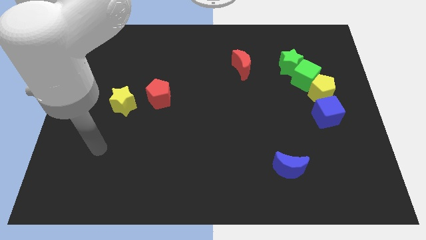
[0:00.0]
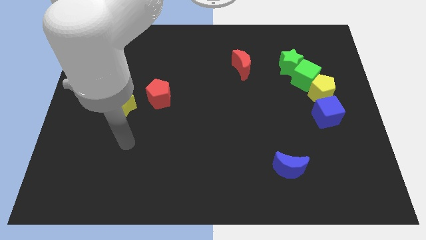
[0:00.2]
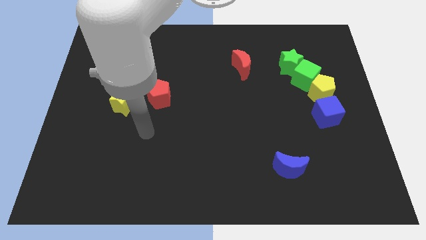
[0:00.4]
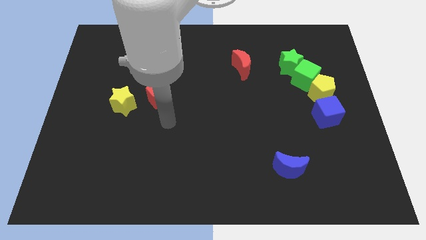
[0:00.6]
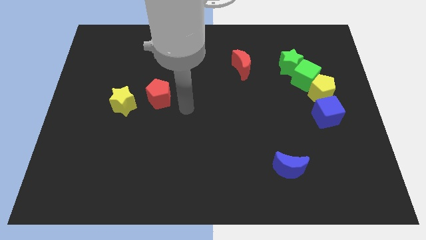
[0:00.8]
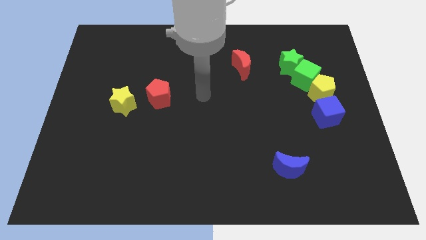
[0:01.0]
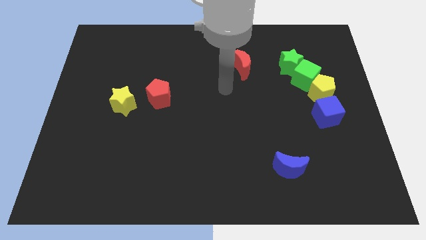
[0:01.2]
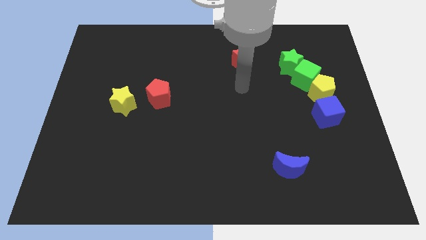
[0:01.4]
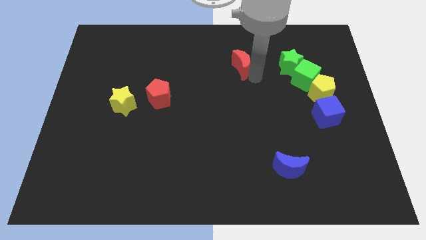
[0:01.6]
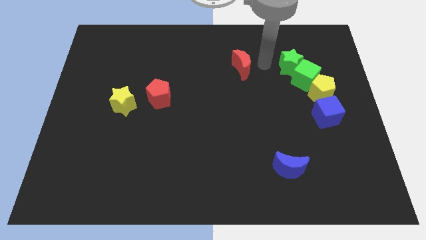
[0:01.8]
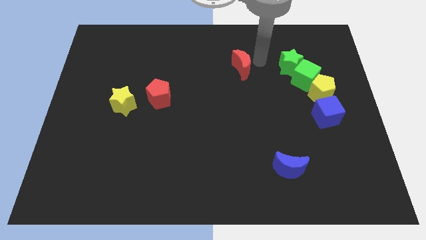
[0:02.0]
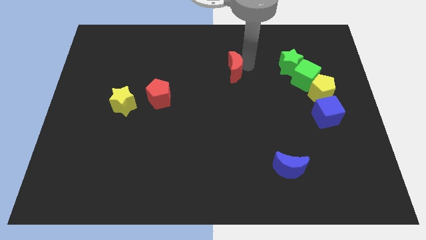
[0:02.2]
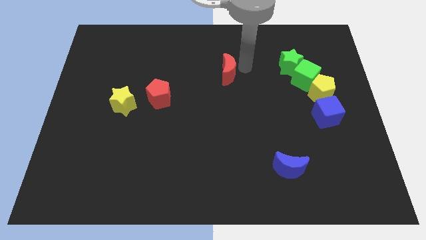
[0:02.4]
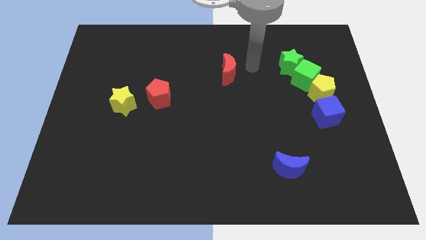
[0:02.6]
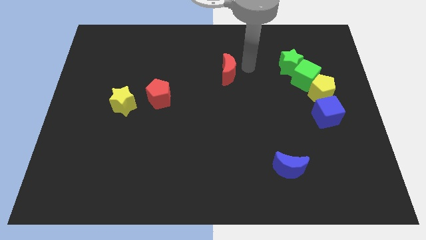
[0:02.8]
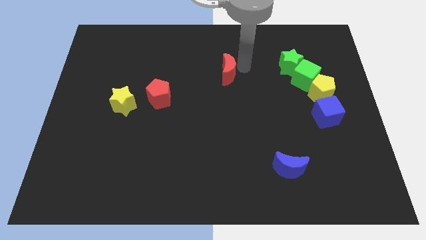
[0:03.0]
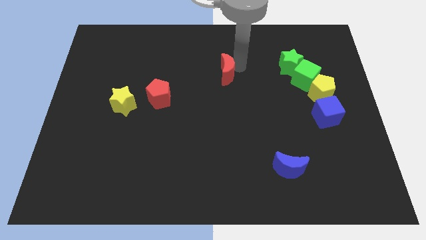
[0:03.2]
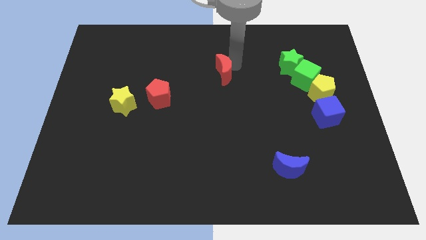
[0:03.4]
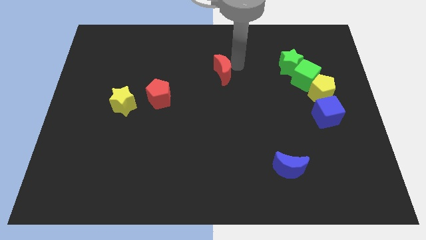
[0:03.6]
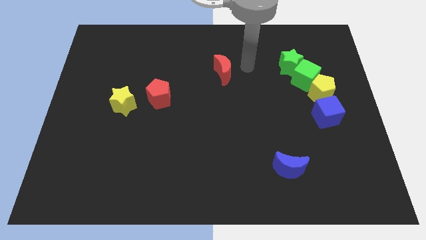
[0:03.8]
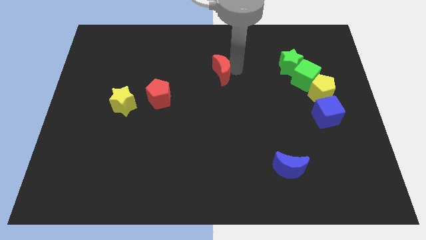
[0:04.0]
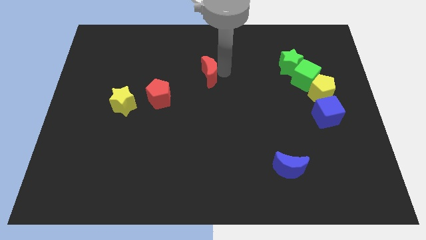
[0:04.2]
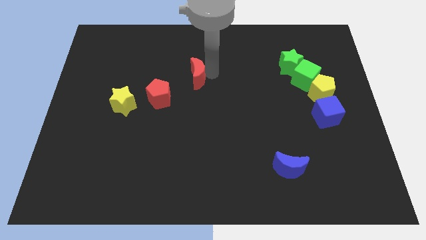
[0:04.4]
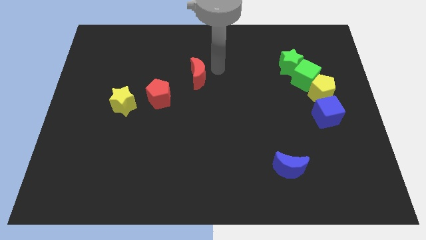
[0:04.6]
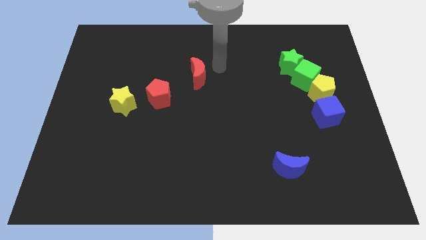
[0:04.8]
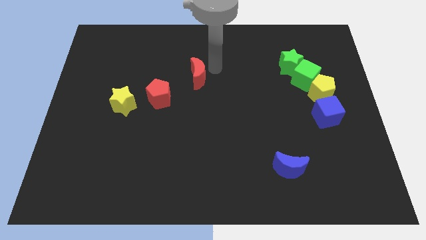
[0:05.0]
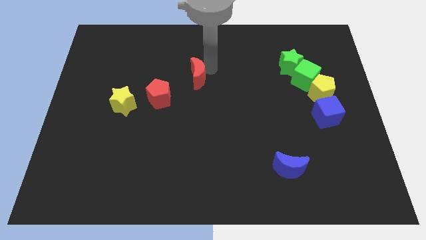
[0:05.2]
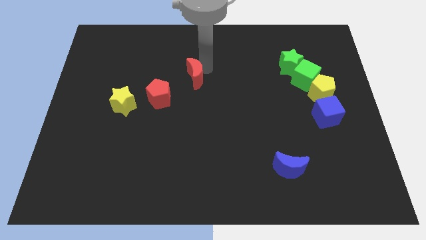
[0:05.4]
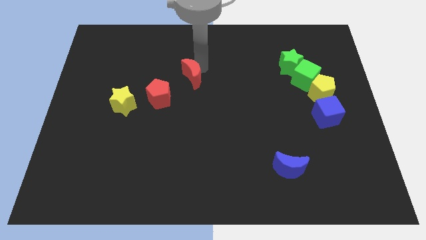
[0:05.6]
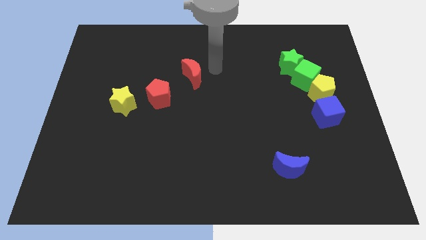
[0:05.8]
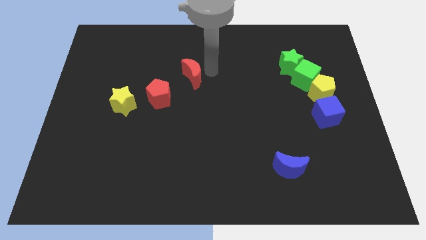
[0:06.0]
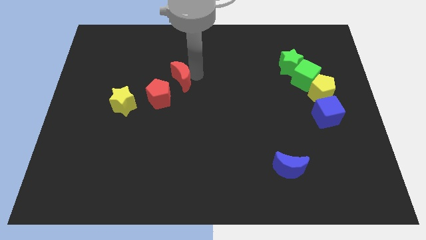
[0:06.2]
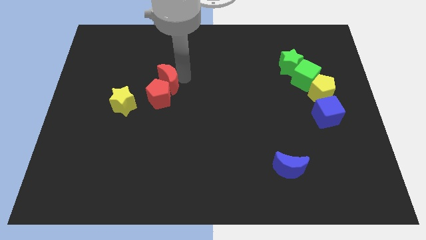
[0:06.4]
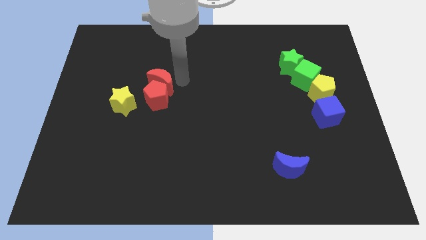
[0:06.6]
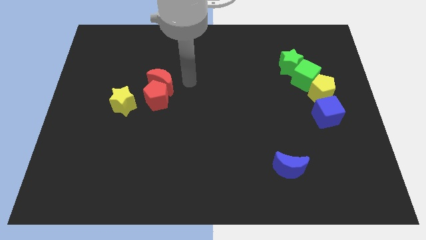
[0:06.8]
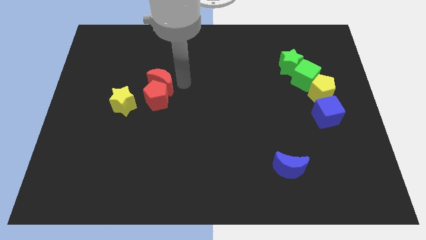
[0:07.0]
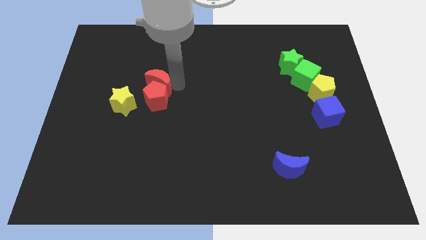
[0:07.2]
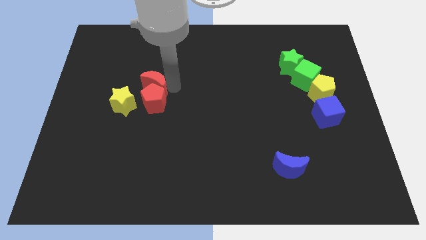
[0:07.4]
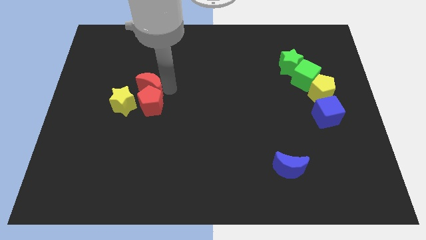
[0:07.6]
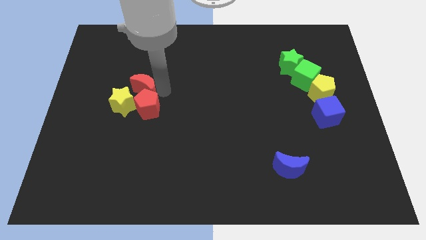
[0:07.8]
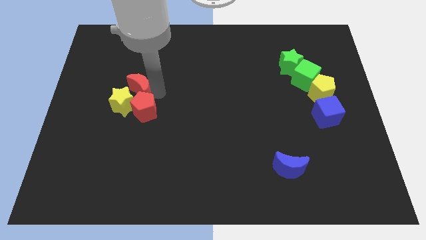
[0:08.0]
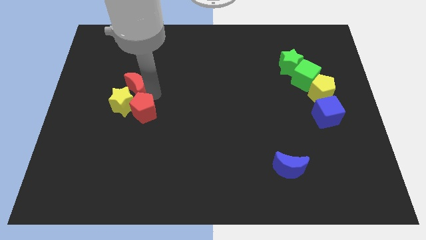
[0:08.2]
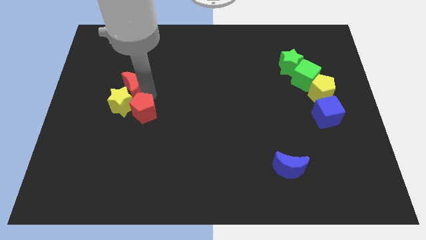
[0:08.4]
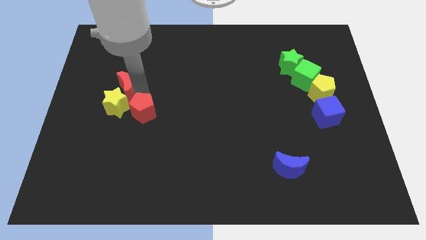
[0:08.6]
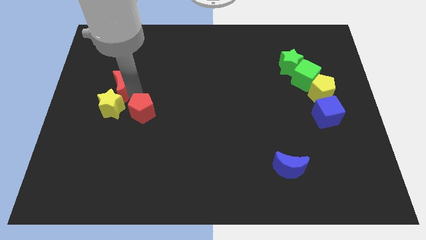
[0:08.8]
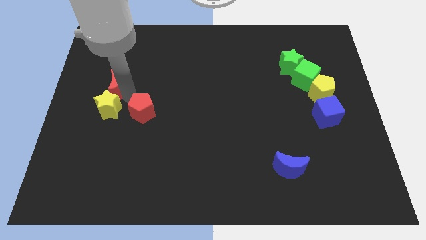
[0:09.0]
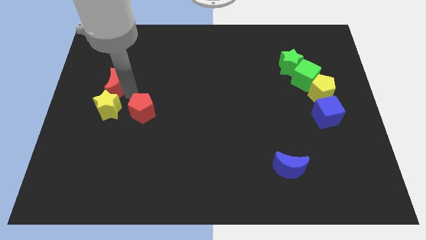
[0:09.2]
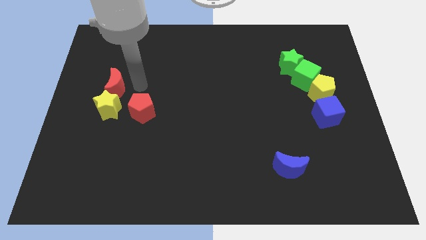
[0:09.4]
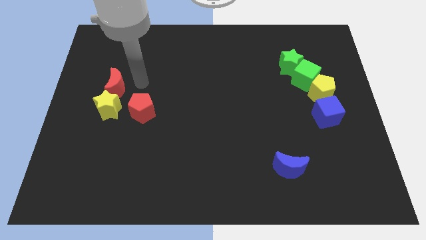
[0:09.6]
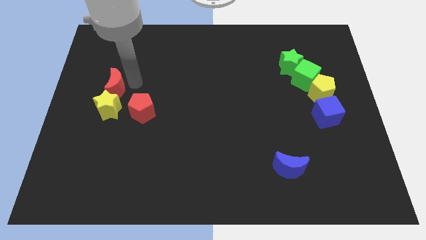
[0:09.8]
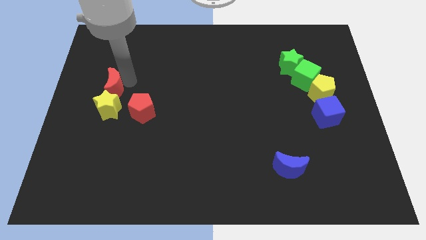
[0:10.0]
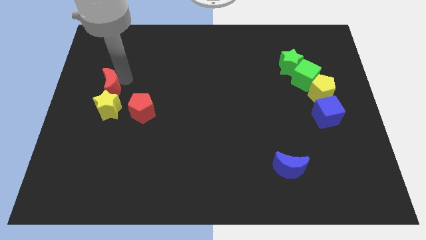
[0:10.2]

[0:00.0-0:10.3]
push the red moon to the top left side of the yellow star

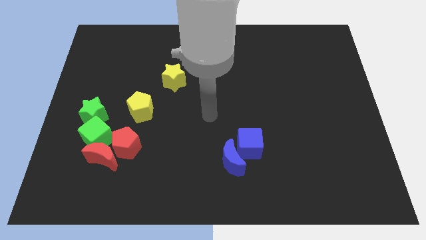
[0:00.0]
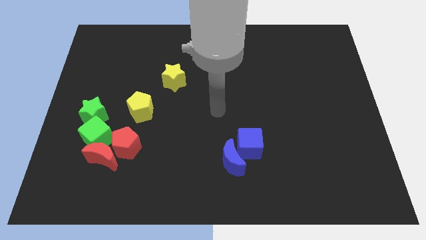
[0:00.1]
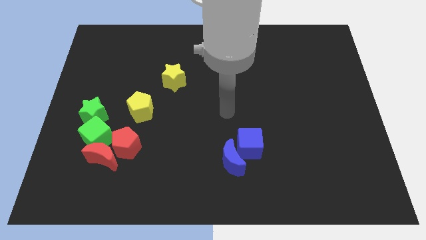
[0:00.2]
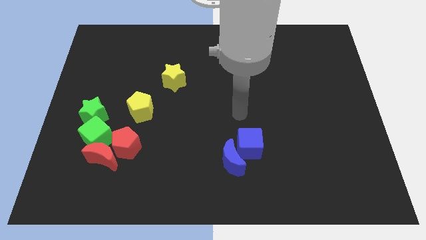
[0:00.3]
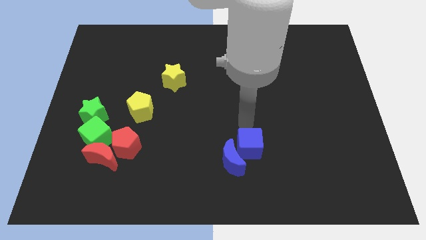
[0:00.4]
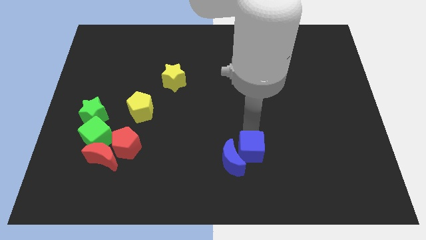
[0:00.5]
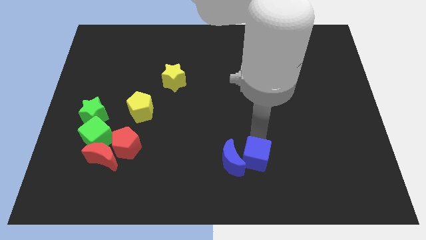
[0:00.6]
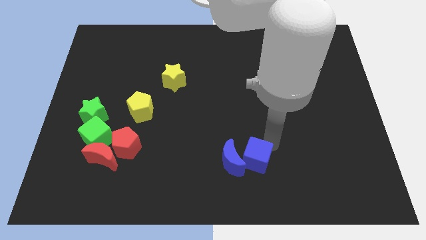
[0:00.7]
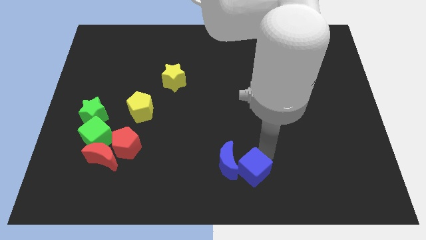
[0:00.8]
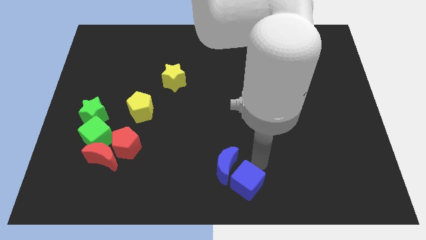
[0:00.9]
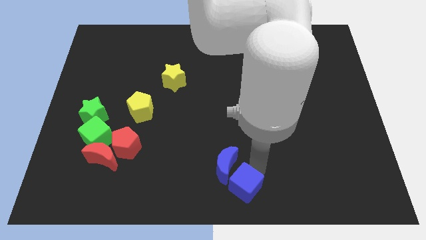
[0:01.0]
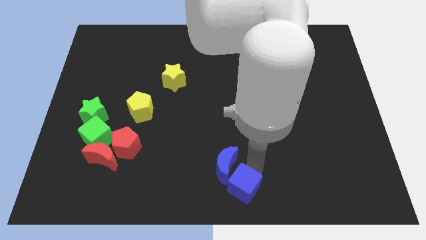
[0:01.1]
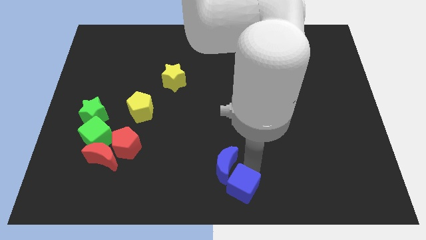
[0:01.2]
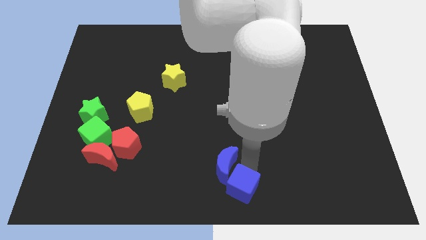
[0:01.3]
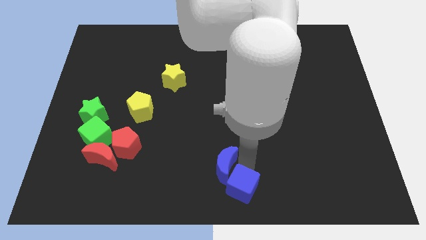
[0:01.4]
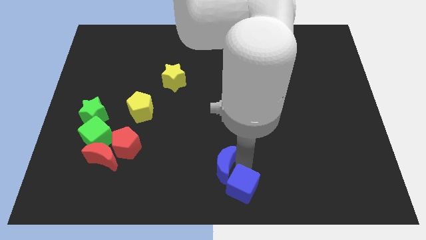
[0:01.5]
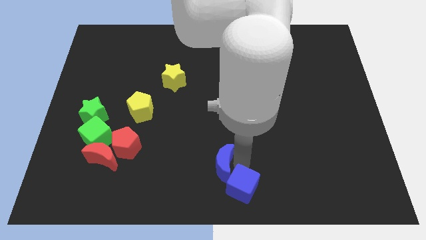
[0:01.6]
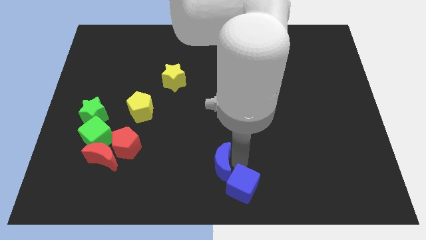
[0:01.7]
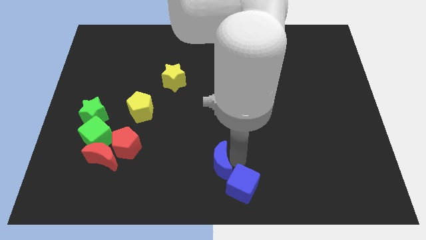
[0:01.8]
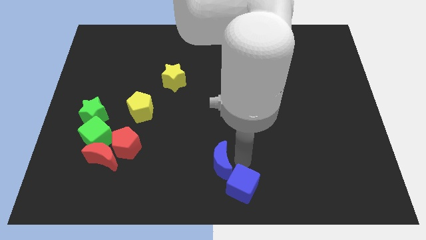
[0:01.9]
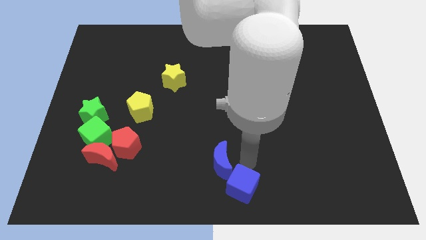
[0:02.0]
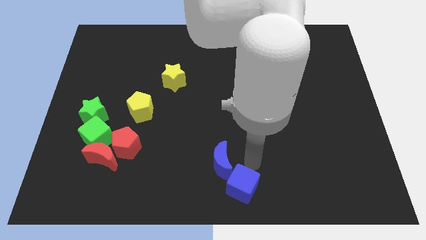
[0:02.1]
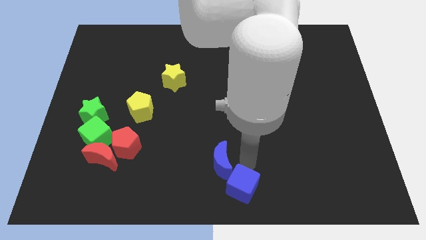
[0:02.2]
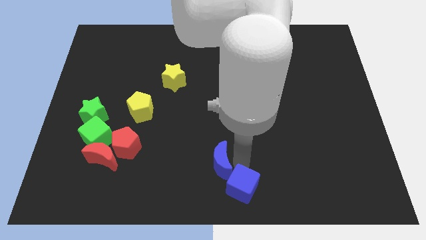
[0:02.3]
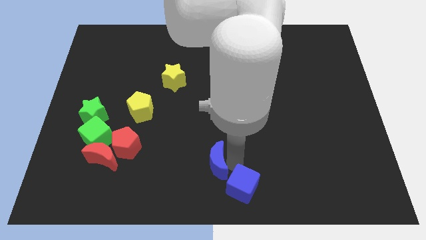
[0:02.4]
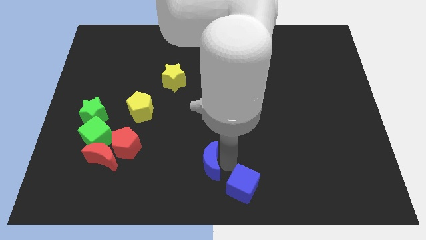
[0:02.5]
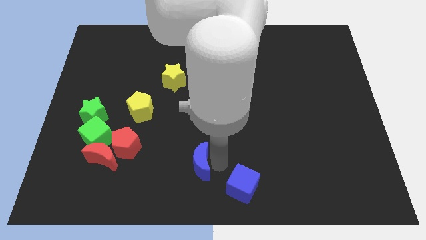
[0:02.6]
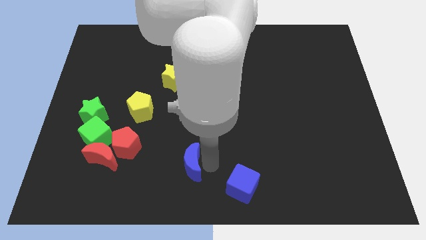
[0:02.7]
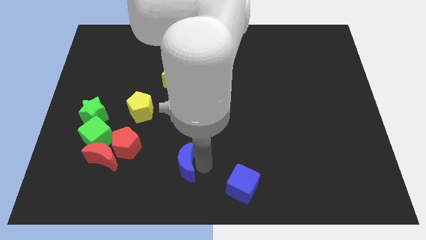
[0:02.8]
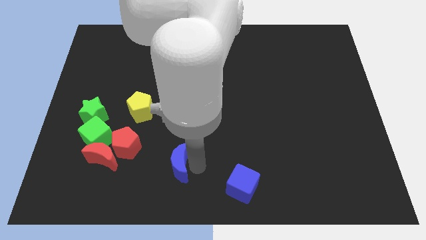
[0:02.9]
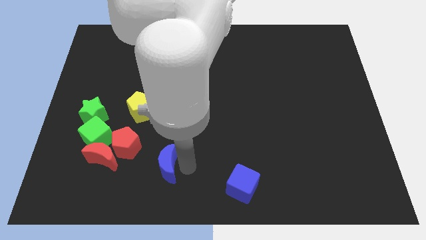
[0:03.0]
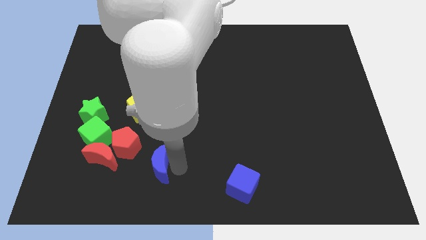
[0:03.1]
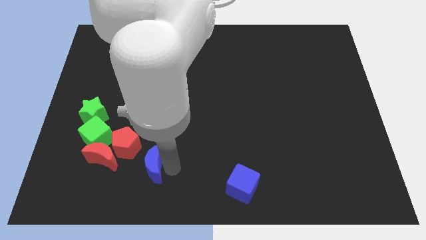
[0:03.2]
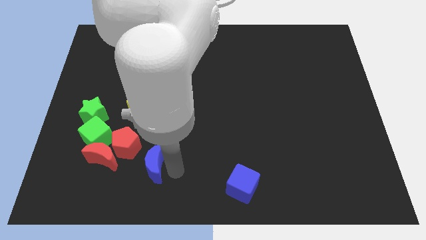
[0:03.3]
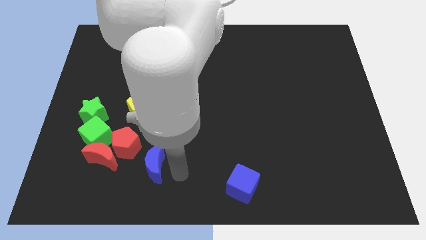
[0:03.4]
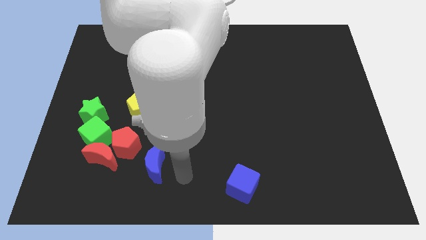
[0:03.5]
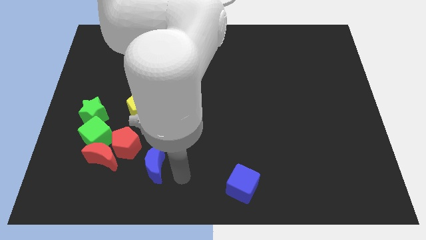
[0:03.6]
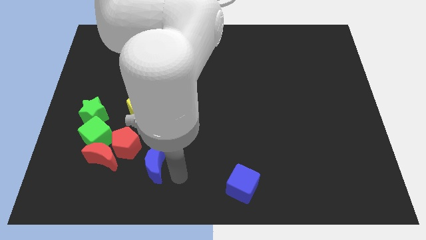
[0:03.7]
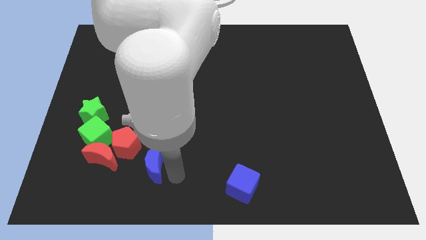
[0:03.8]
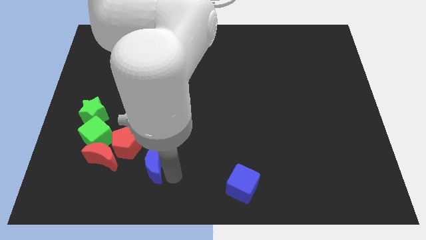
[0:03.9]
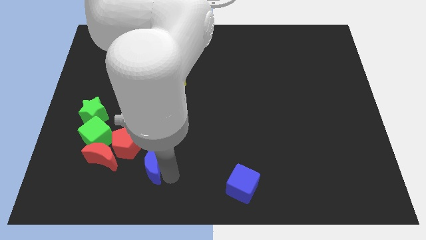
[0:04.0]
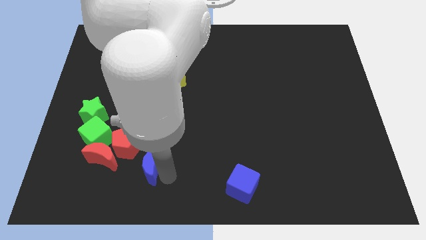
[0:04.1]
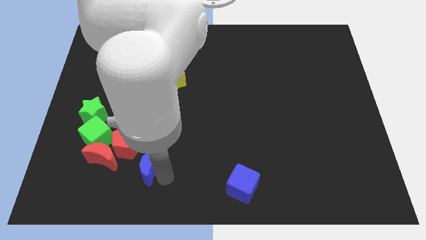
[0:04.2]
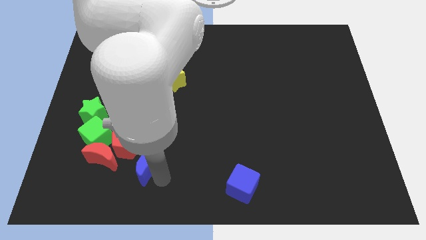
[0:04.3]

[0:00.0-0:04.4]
put the blue moon to the bottom side of the yellow pentagon
